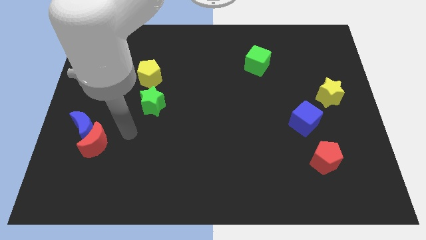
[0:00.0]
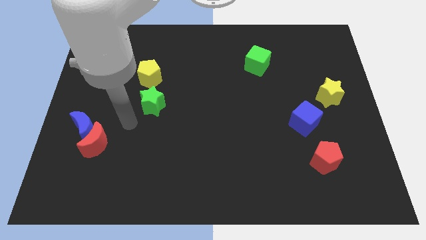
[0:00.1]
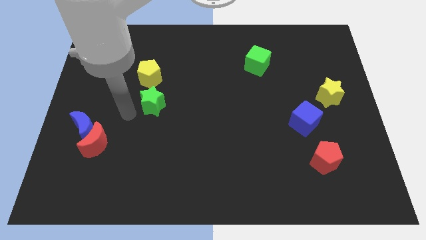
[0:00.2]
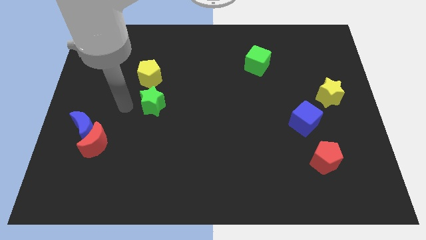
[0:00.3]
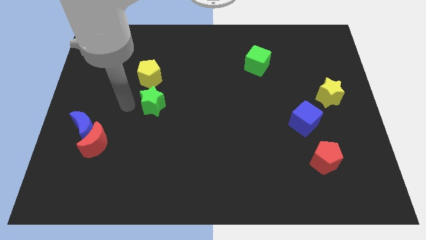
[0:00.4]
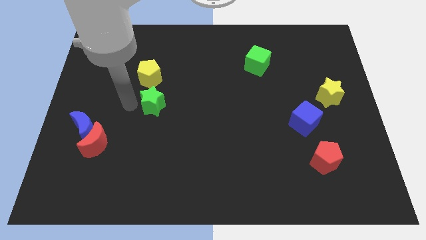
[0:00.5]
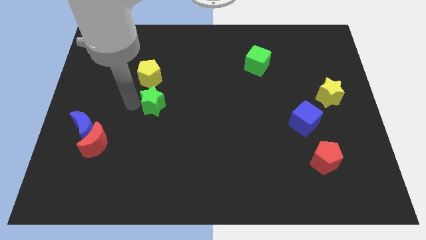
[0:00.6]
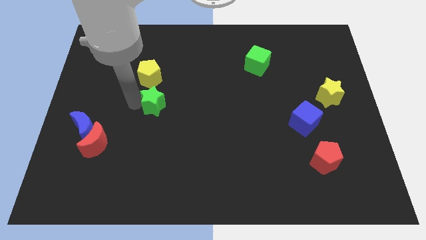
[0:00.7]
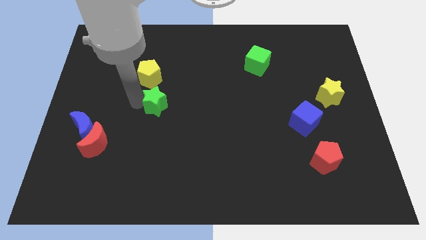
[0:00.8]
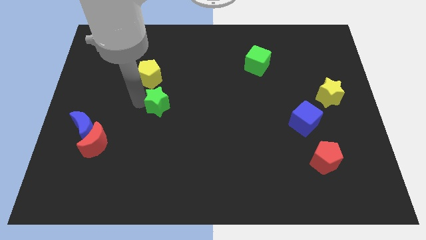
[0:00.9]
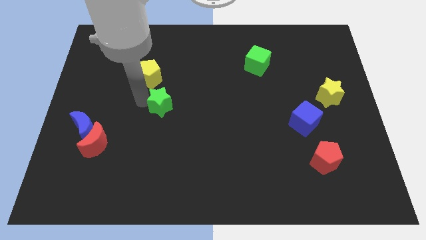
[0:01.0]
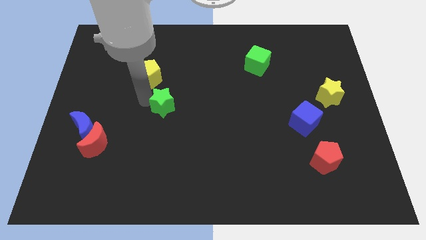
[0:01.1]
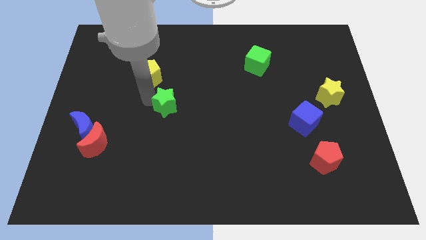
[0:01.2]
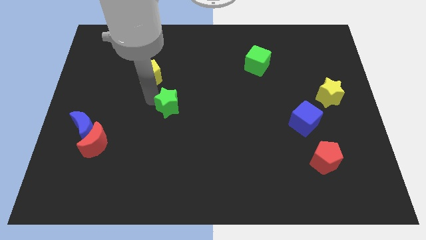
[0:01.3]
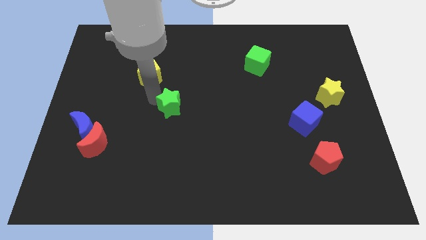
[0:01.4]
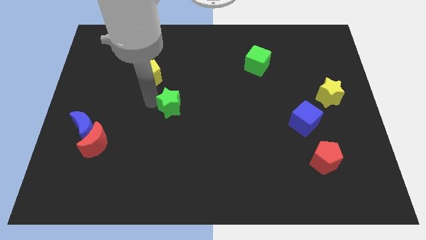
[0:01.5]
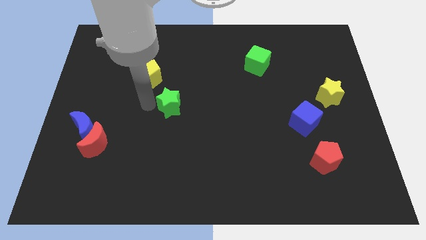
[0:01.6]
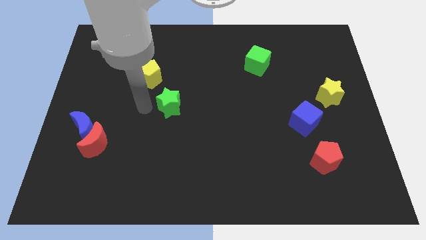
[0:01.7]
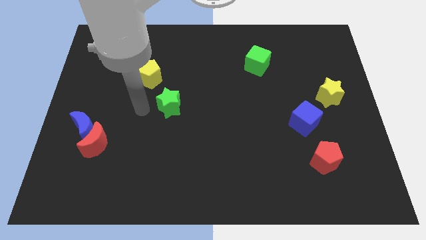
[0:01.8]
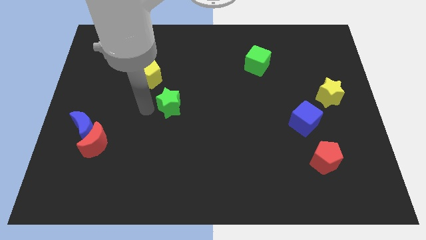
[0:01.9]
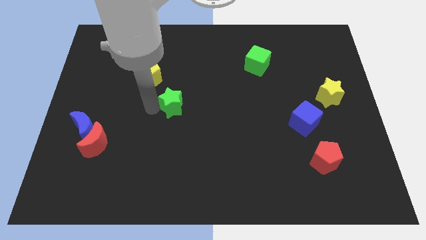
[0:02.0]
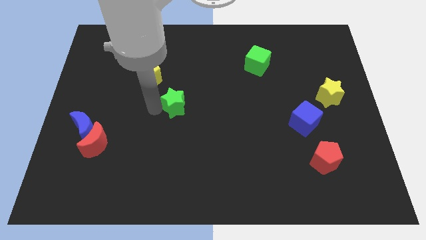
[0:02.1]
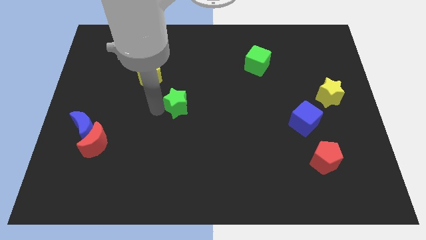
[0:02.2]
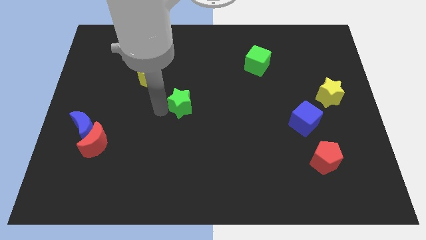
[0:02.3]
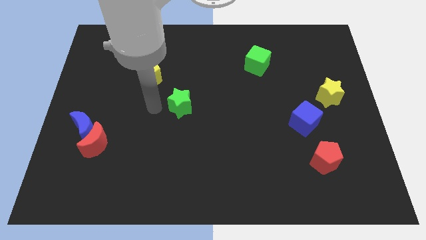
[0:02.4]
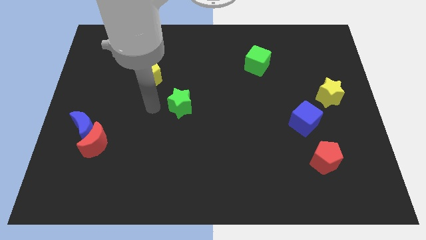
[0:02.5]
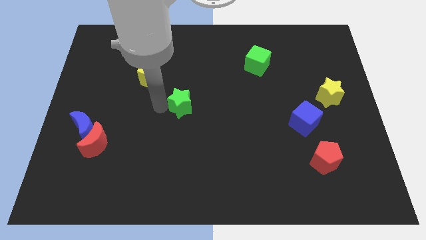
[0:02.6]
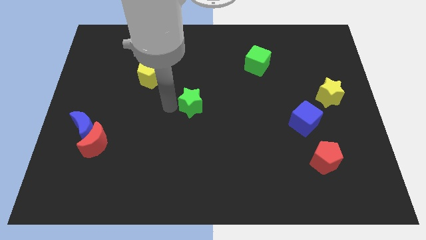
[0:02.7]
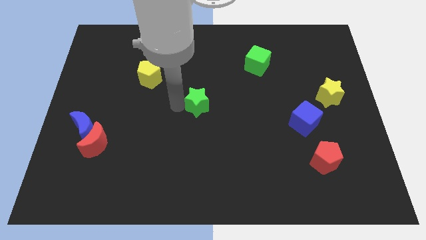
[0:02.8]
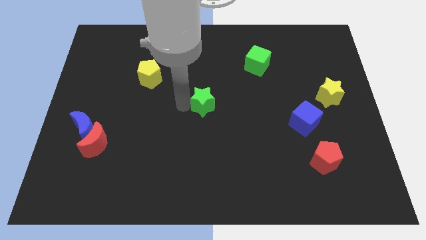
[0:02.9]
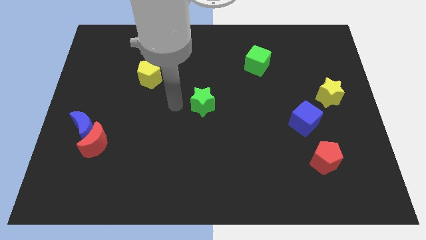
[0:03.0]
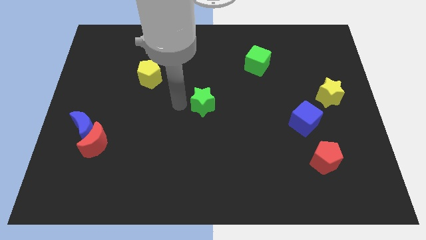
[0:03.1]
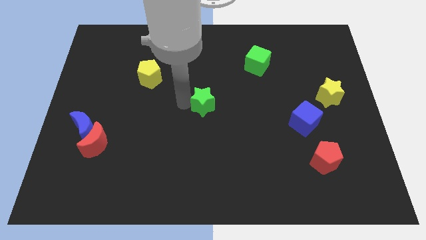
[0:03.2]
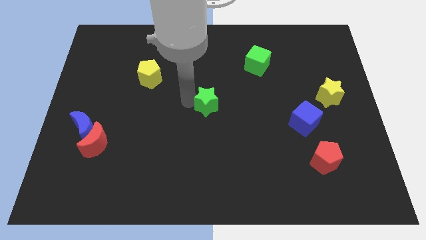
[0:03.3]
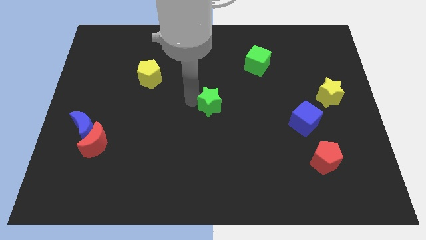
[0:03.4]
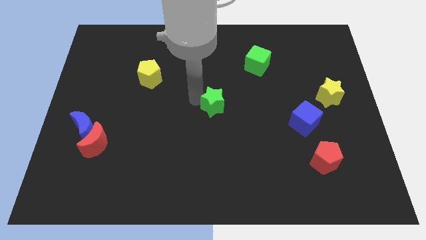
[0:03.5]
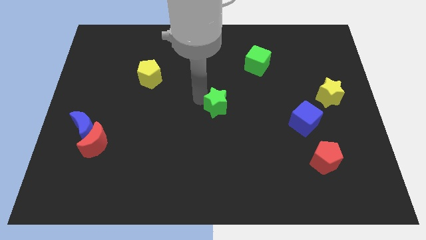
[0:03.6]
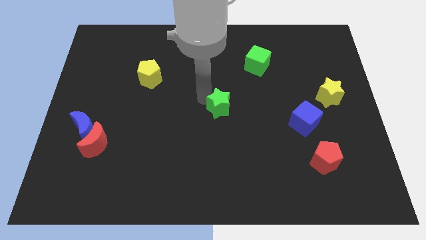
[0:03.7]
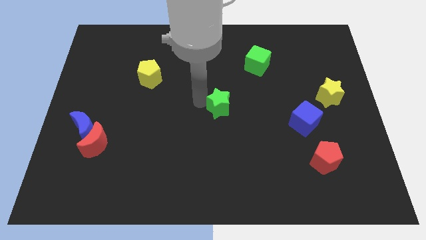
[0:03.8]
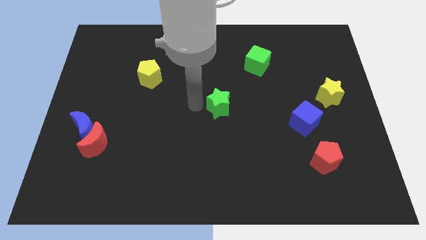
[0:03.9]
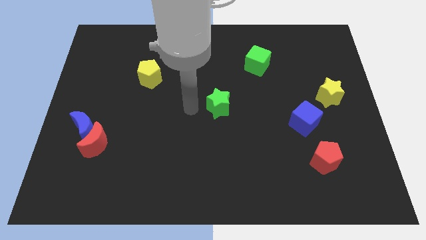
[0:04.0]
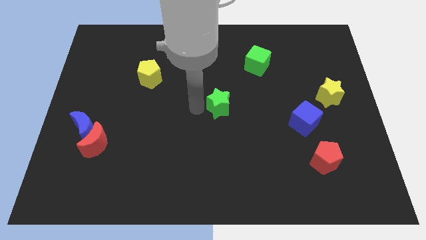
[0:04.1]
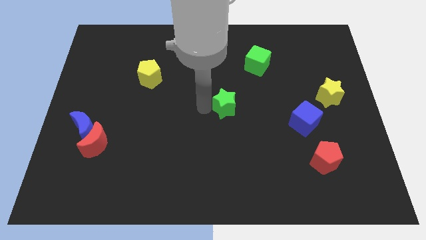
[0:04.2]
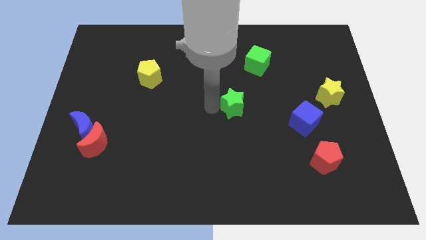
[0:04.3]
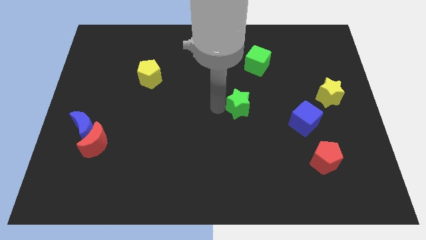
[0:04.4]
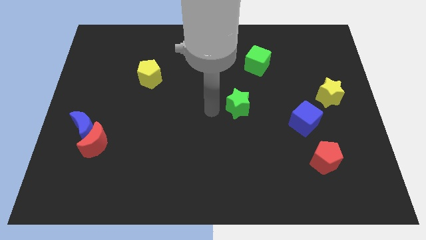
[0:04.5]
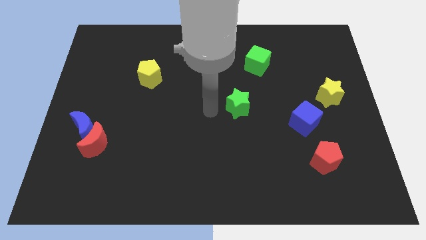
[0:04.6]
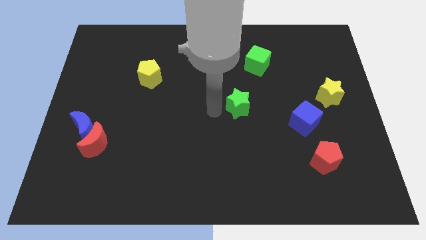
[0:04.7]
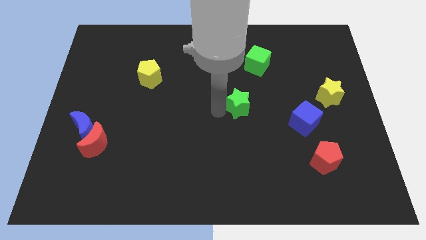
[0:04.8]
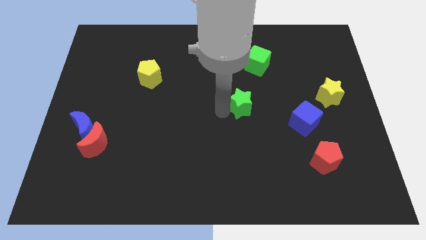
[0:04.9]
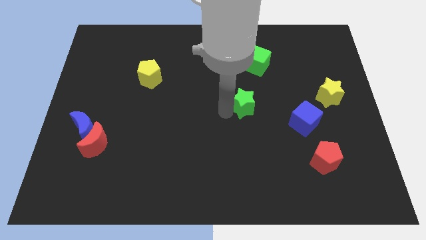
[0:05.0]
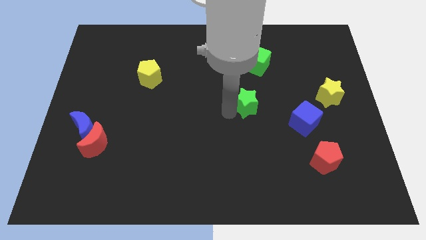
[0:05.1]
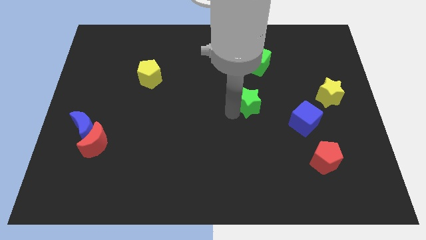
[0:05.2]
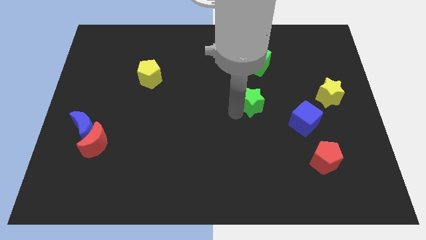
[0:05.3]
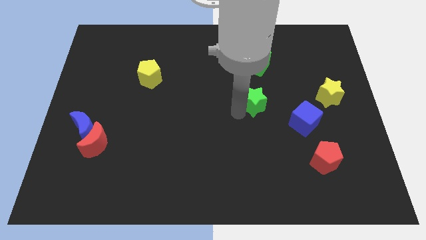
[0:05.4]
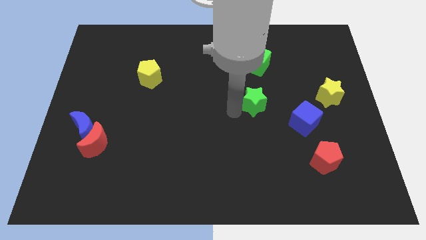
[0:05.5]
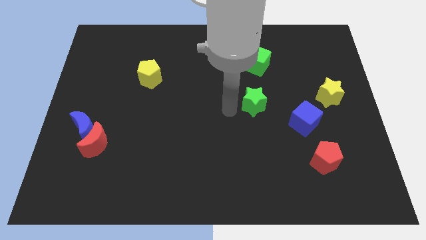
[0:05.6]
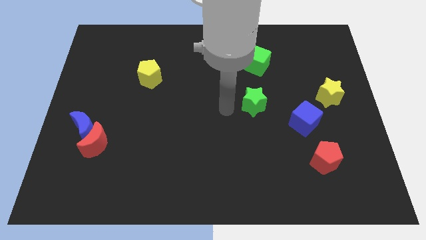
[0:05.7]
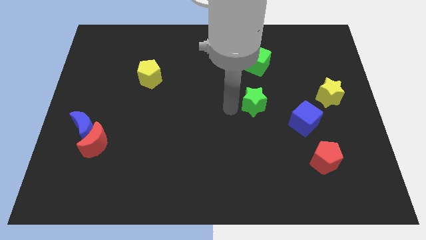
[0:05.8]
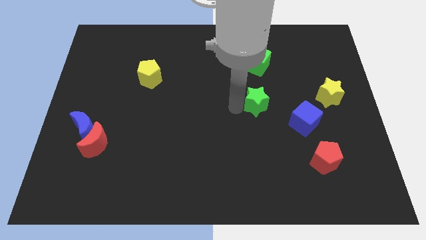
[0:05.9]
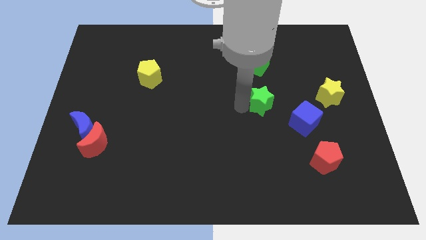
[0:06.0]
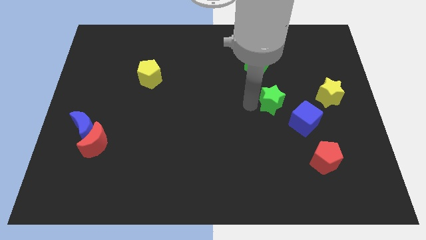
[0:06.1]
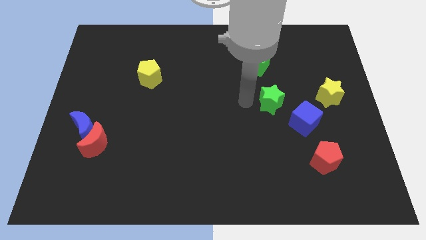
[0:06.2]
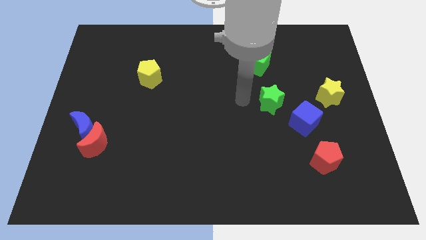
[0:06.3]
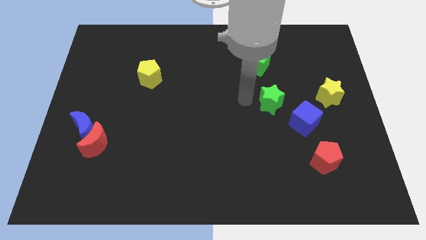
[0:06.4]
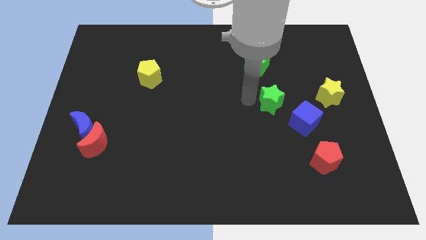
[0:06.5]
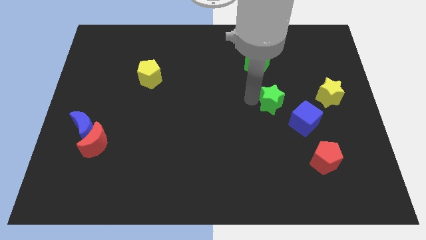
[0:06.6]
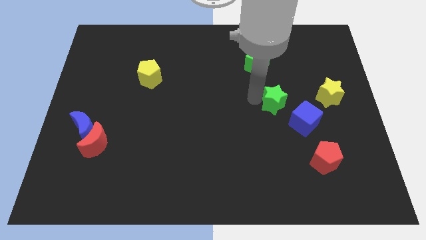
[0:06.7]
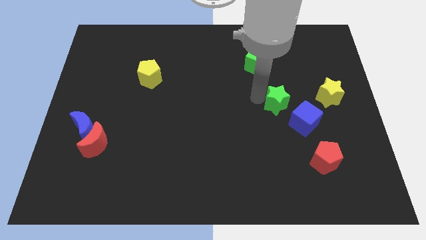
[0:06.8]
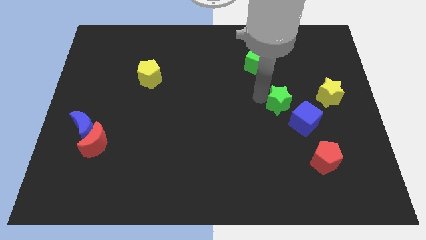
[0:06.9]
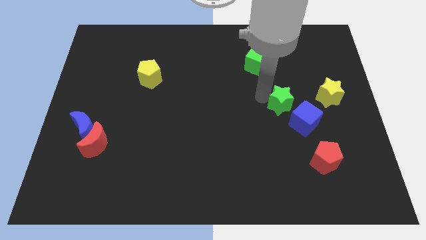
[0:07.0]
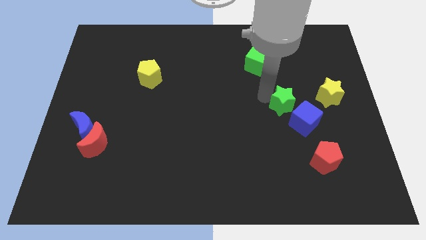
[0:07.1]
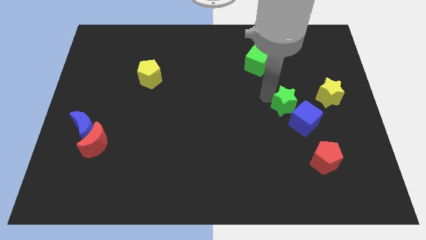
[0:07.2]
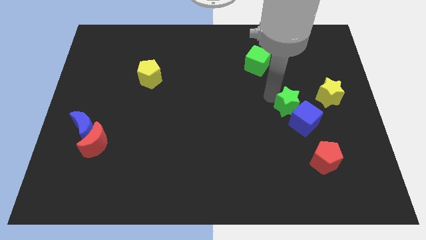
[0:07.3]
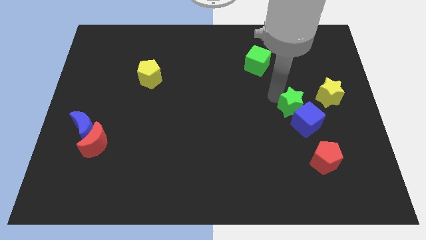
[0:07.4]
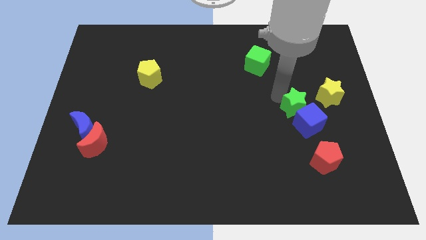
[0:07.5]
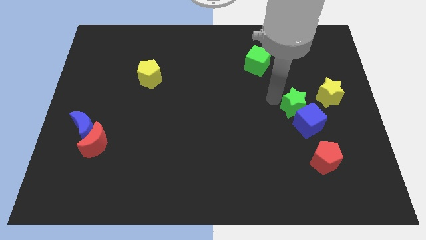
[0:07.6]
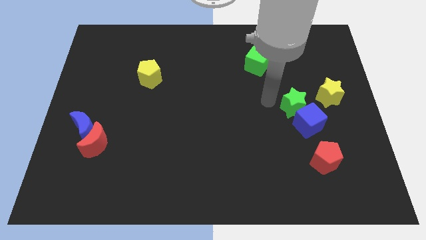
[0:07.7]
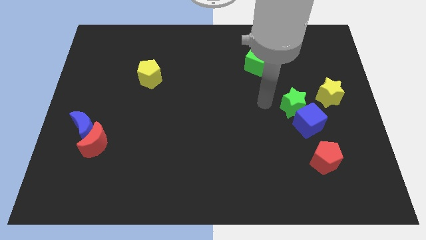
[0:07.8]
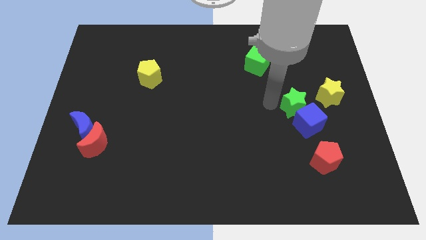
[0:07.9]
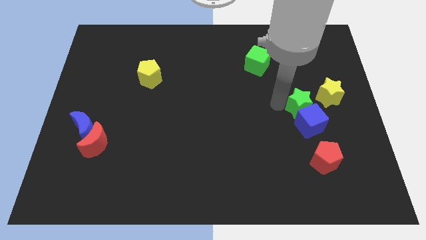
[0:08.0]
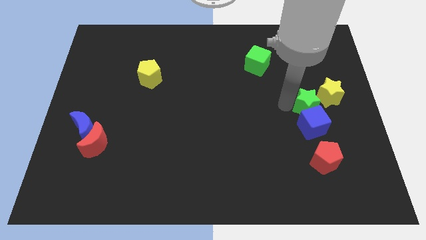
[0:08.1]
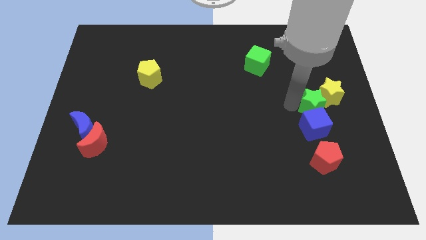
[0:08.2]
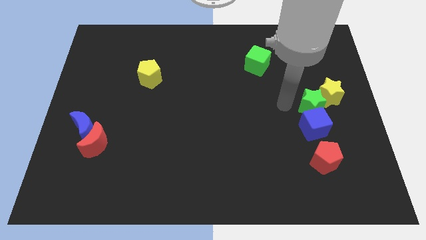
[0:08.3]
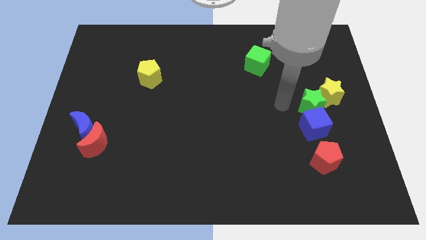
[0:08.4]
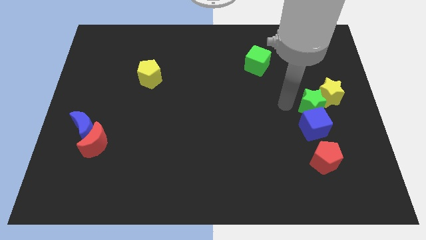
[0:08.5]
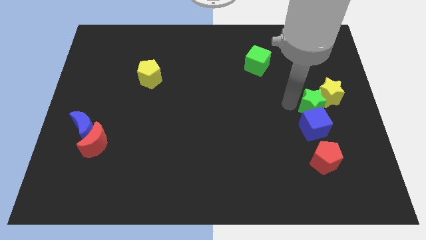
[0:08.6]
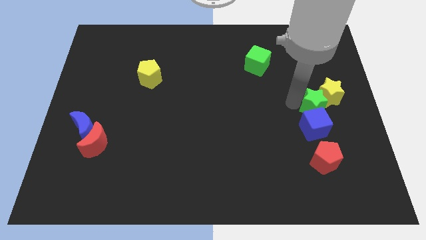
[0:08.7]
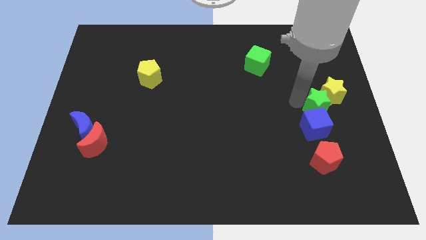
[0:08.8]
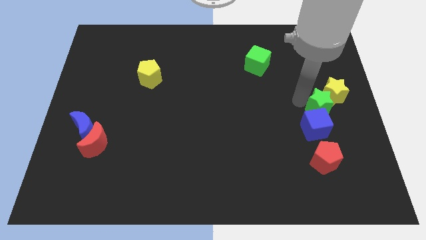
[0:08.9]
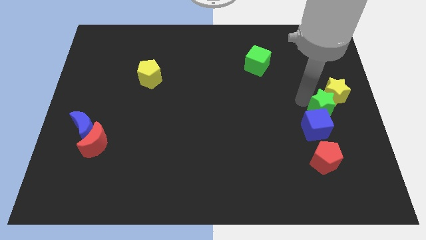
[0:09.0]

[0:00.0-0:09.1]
push the green star to the right side of the board
